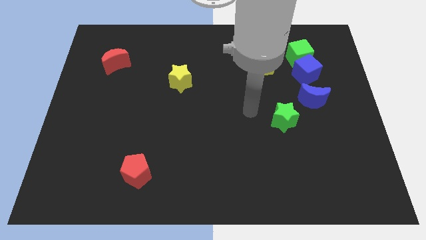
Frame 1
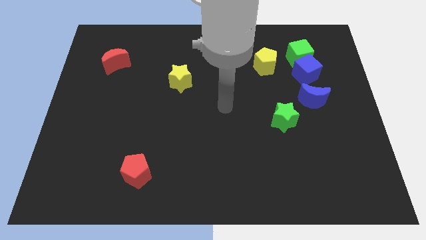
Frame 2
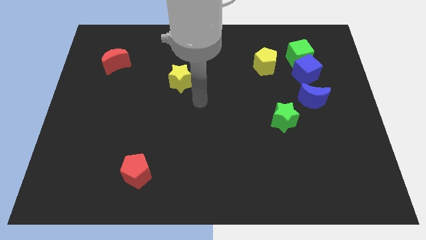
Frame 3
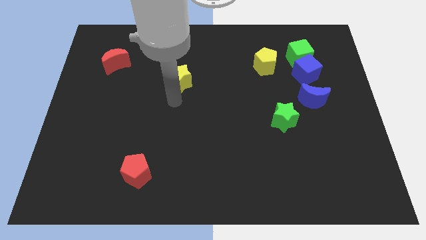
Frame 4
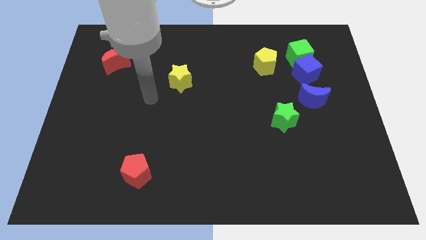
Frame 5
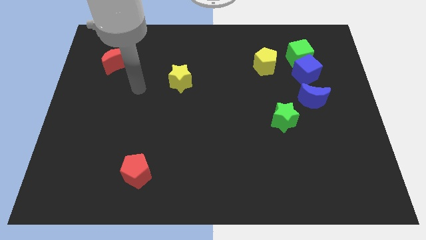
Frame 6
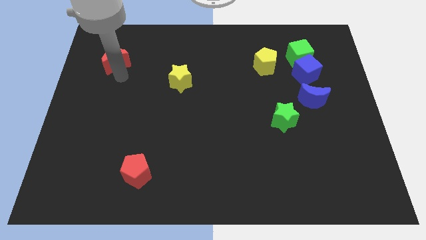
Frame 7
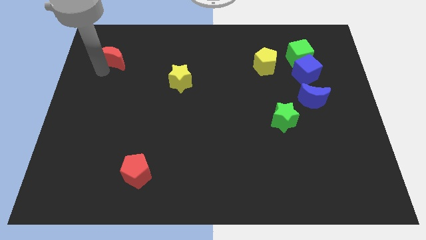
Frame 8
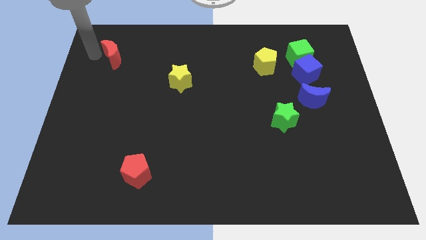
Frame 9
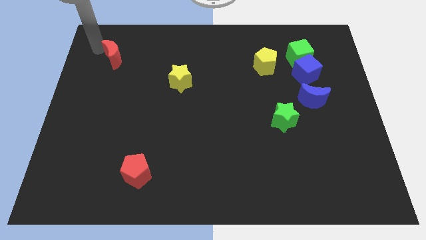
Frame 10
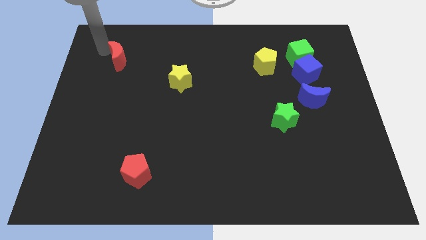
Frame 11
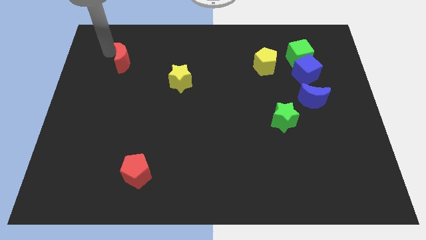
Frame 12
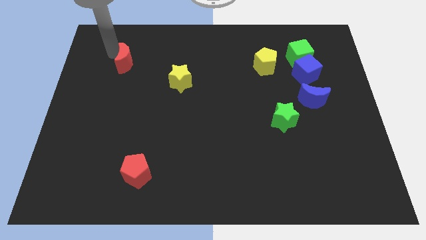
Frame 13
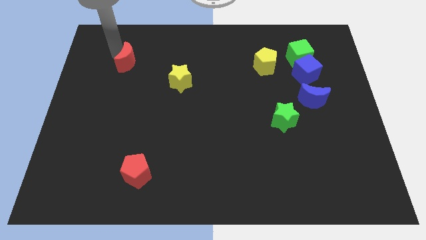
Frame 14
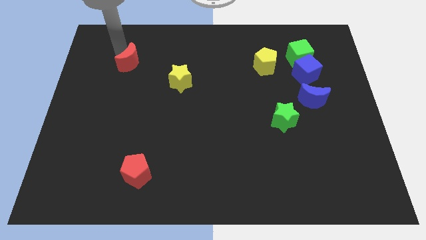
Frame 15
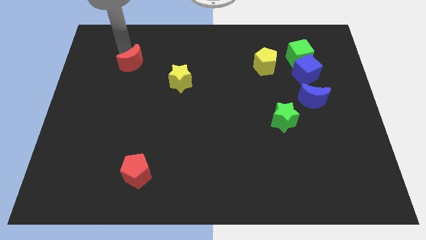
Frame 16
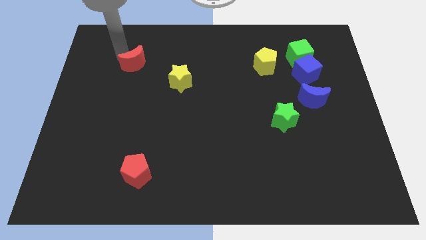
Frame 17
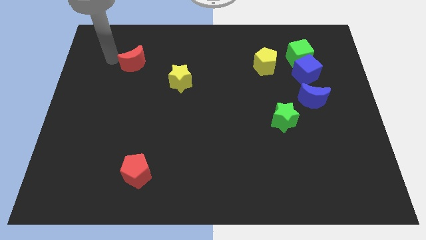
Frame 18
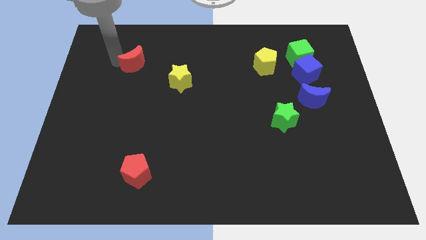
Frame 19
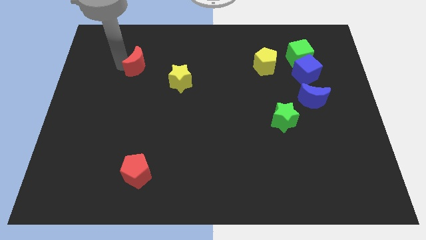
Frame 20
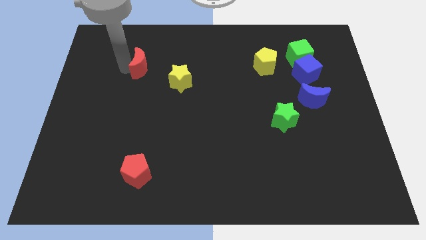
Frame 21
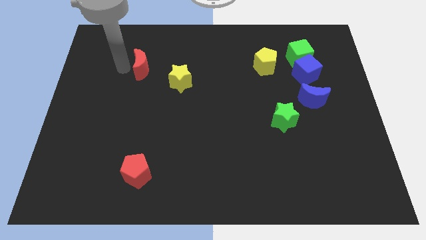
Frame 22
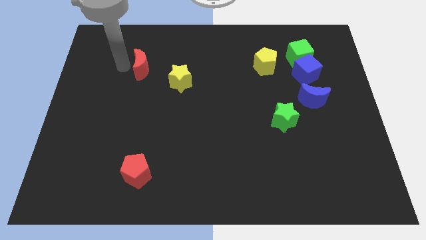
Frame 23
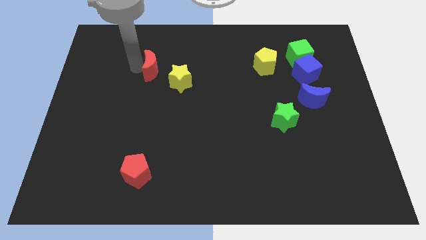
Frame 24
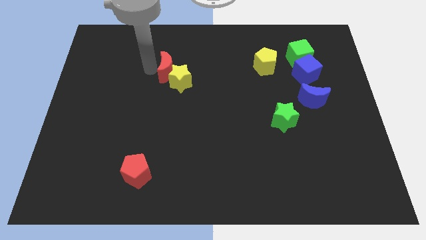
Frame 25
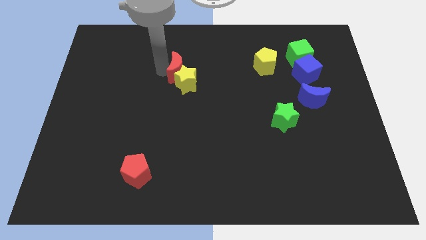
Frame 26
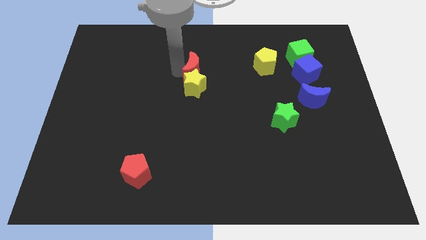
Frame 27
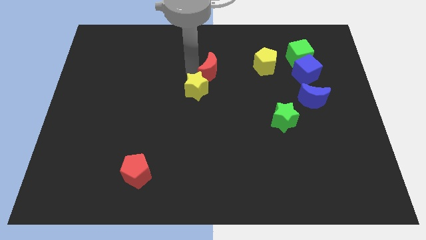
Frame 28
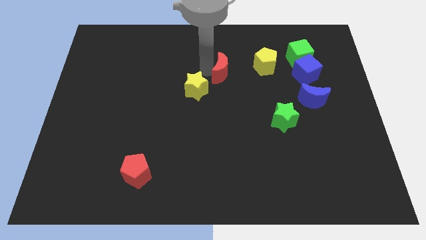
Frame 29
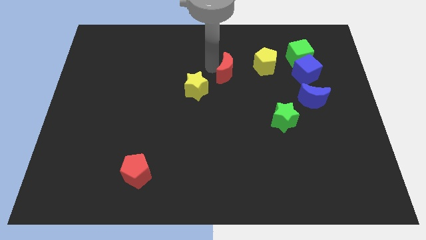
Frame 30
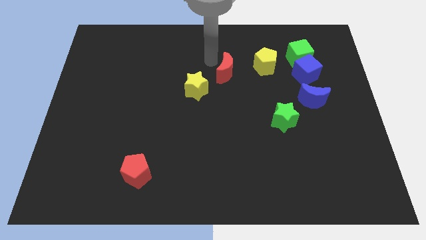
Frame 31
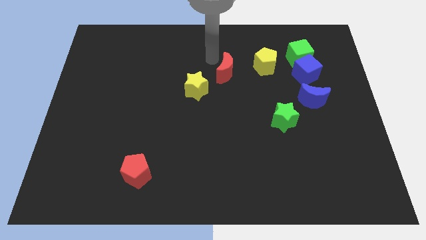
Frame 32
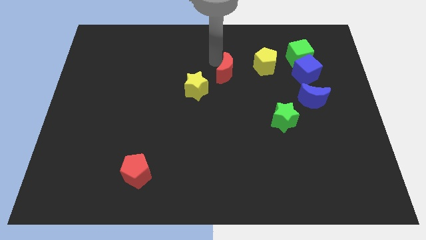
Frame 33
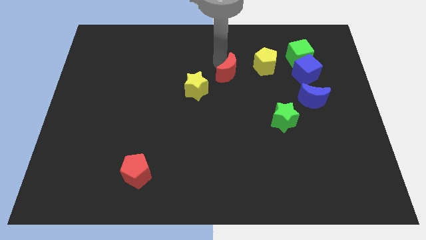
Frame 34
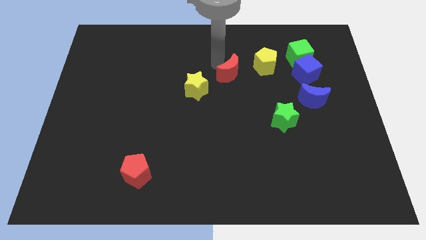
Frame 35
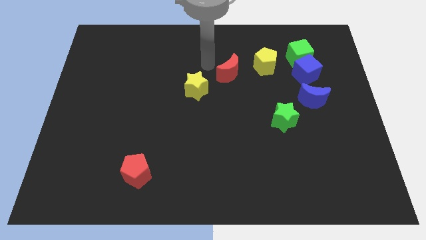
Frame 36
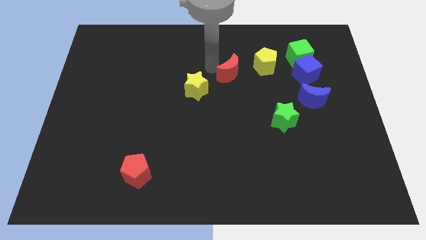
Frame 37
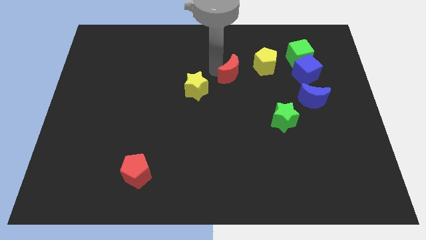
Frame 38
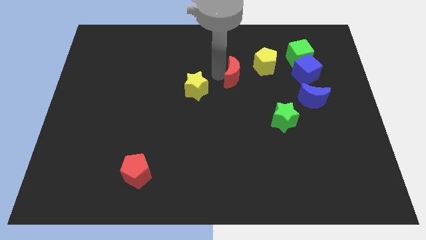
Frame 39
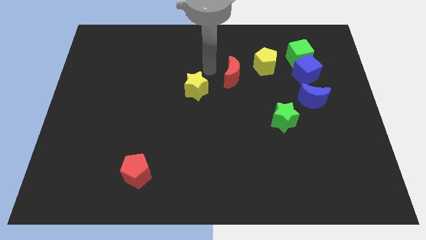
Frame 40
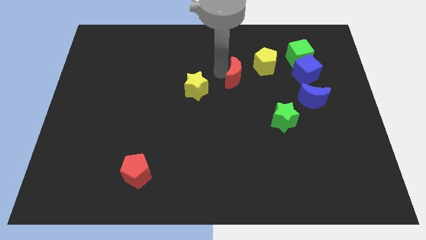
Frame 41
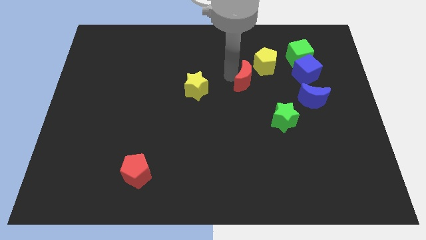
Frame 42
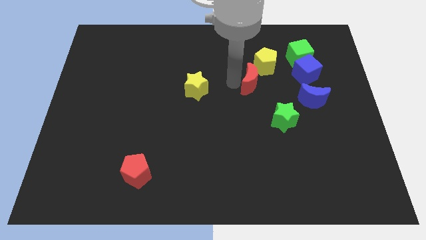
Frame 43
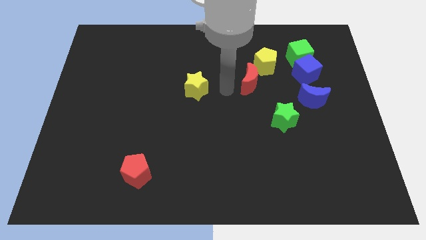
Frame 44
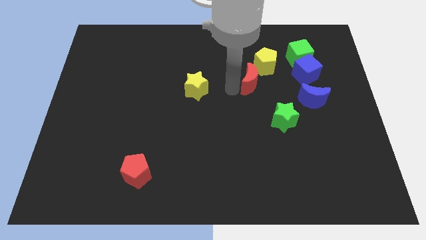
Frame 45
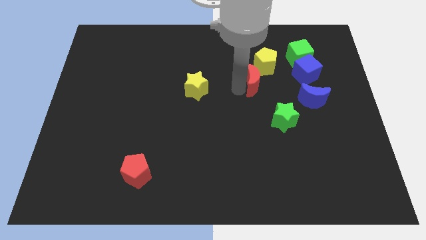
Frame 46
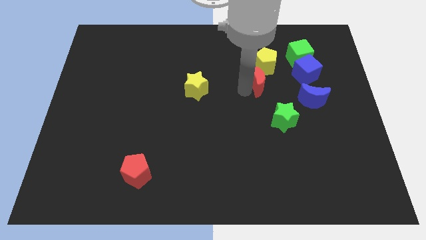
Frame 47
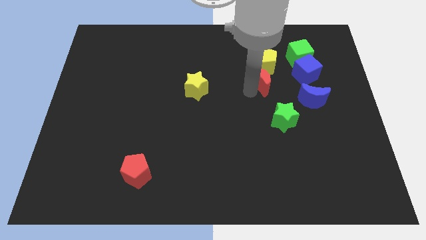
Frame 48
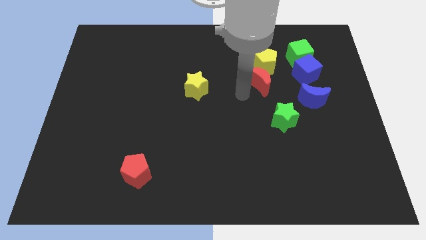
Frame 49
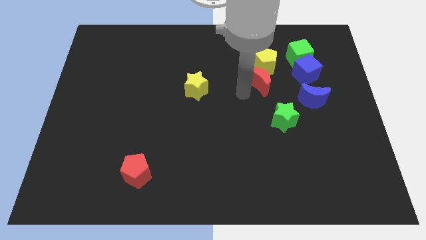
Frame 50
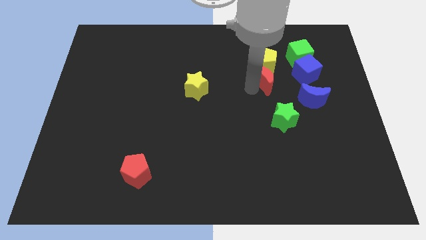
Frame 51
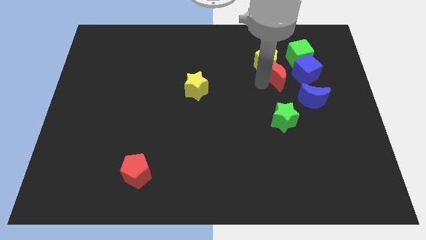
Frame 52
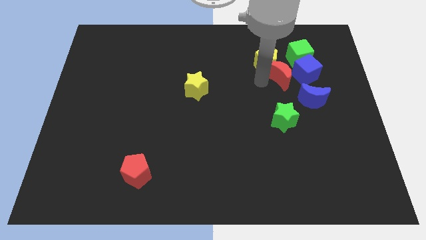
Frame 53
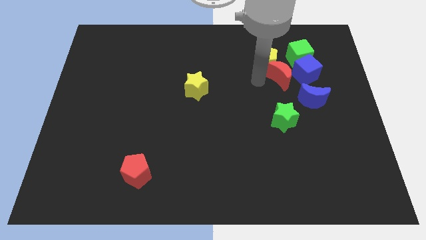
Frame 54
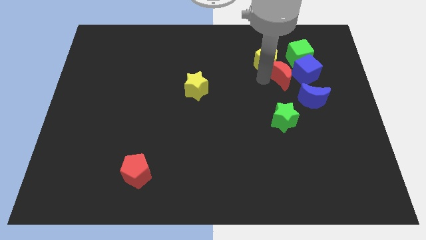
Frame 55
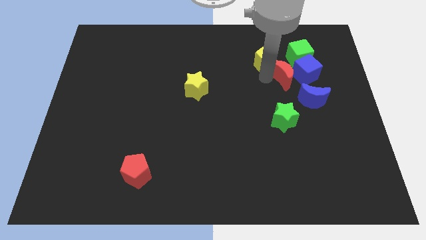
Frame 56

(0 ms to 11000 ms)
move the red moon close to the blue cube

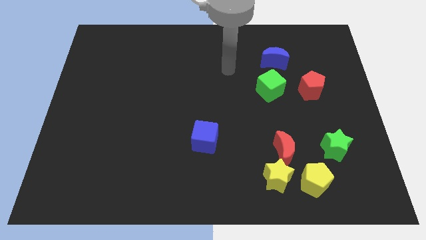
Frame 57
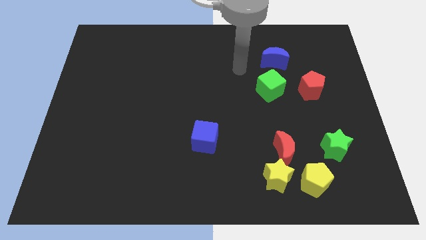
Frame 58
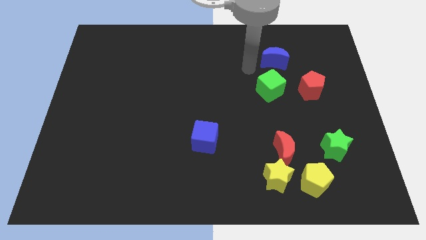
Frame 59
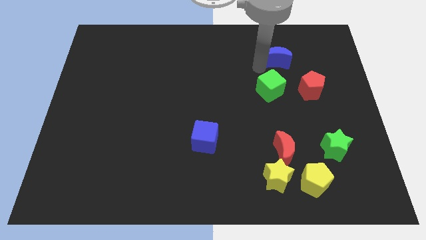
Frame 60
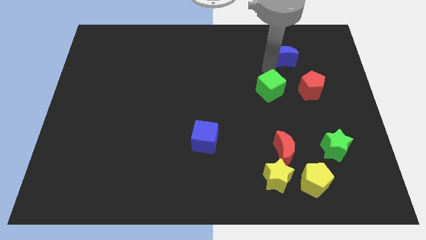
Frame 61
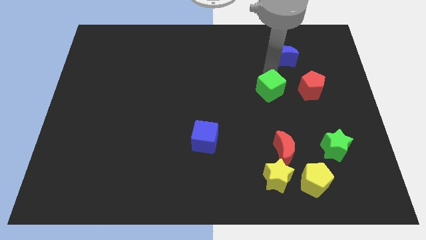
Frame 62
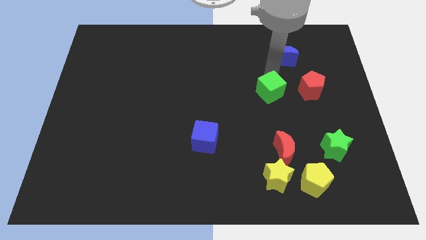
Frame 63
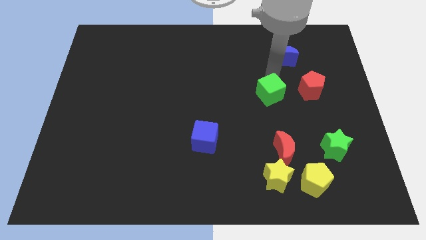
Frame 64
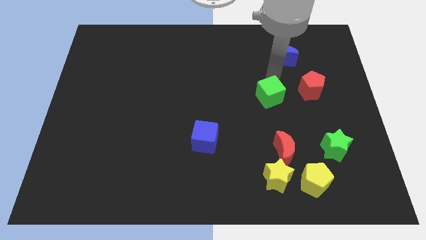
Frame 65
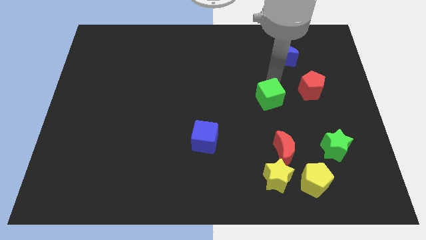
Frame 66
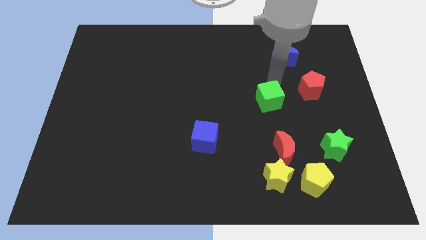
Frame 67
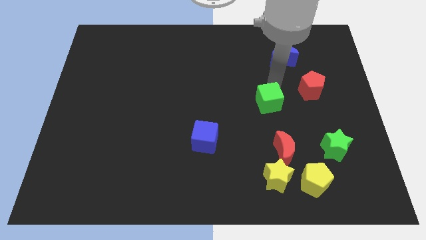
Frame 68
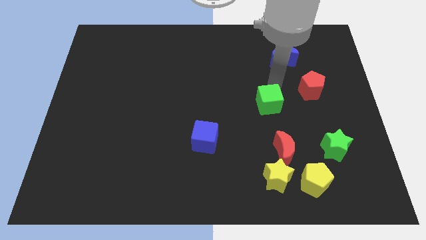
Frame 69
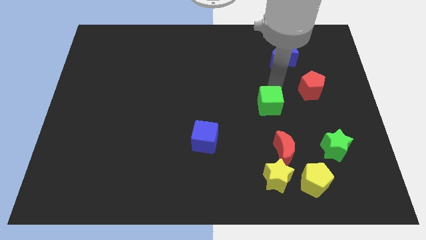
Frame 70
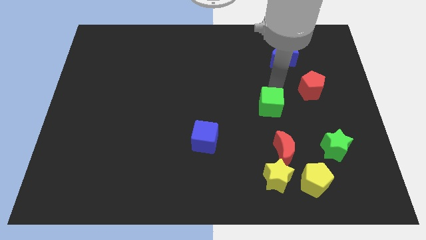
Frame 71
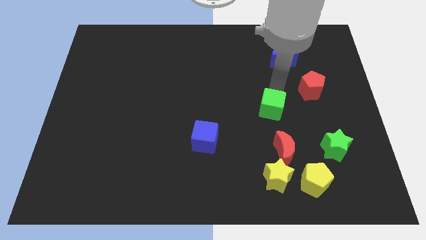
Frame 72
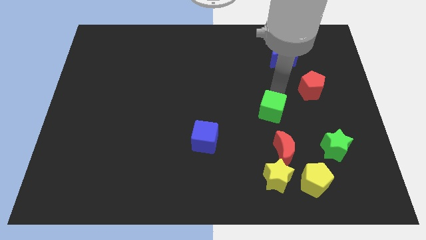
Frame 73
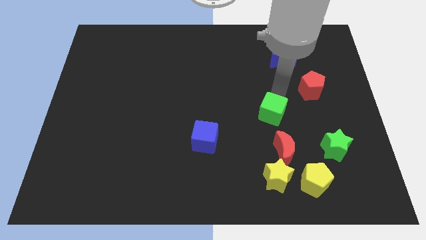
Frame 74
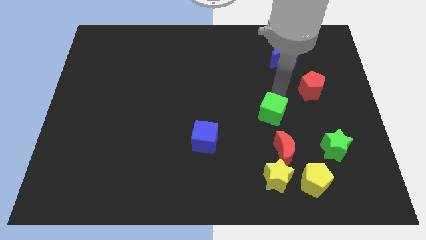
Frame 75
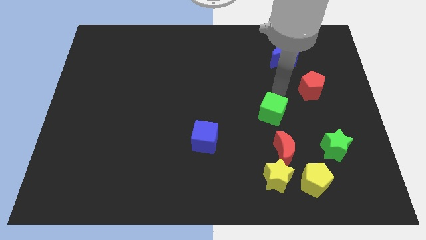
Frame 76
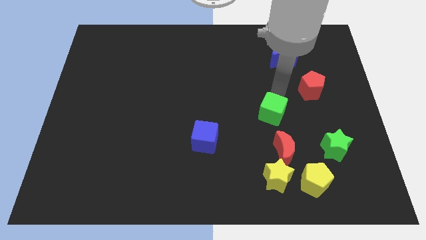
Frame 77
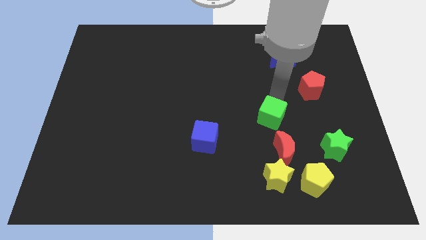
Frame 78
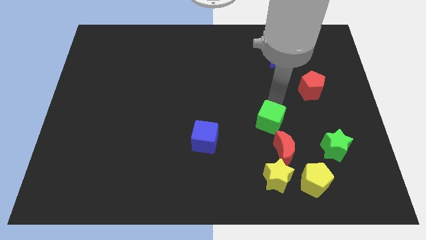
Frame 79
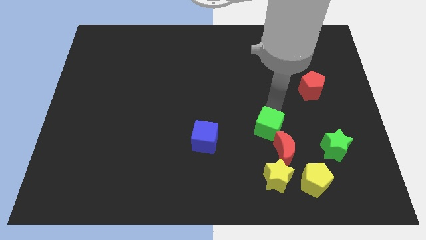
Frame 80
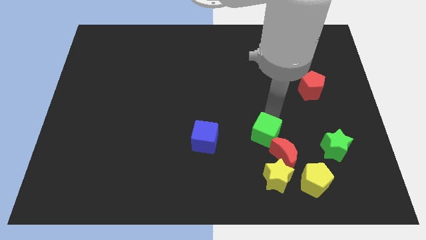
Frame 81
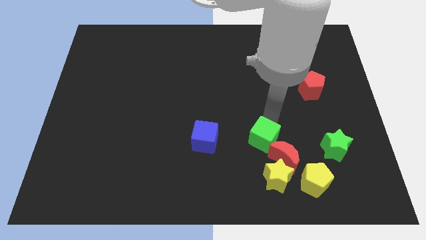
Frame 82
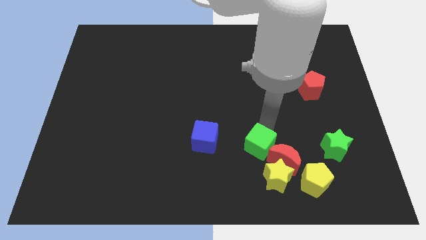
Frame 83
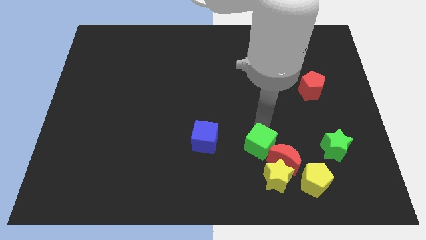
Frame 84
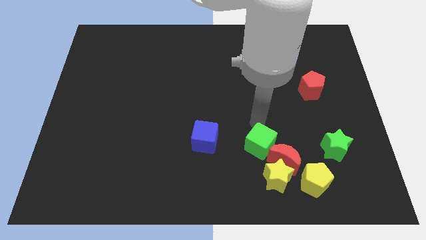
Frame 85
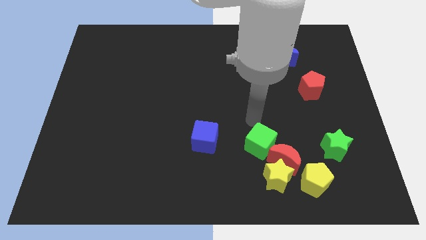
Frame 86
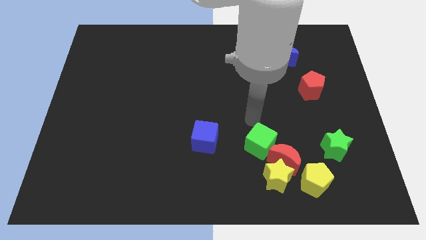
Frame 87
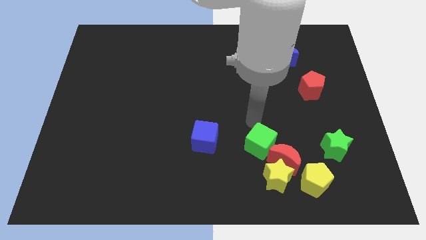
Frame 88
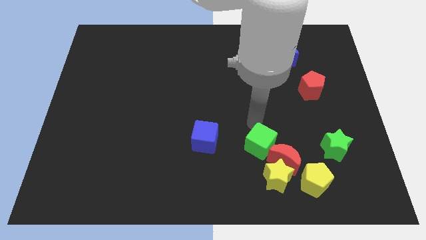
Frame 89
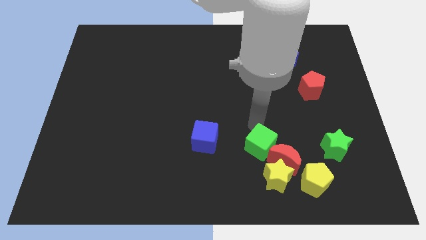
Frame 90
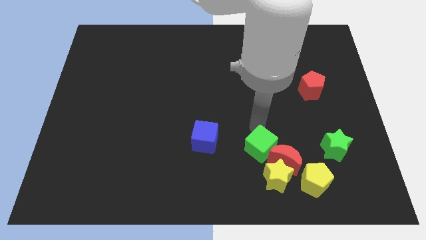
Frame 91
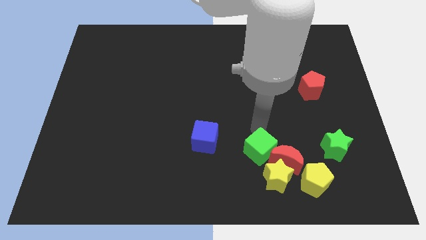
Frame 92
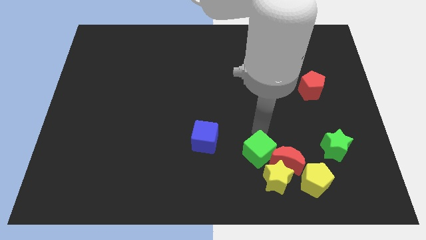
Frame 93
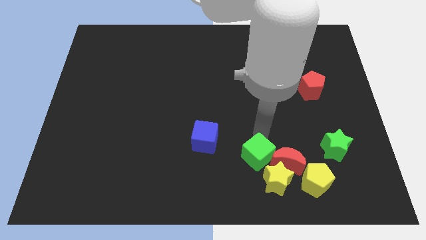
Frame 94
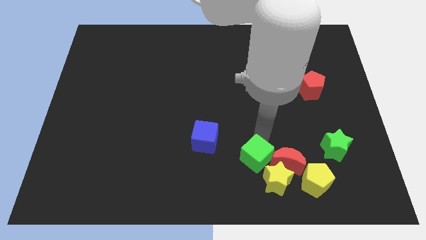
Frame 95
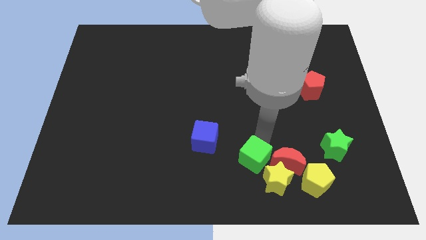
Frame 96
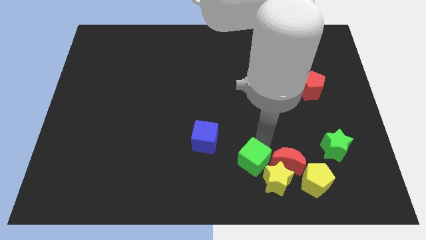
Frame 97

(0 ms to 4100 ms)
slide the green cube towards the yellow star
